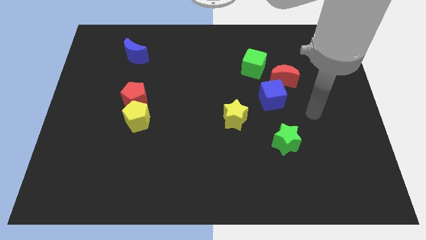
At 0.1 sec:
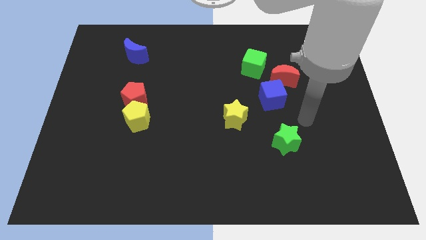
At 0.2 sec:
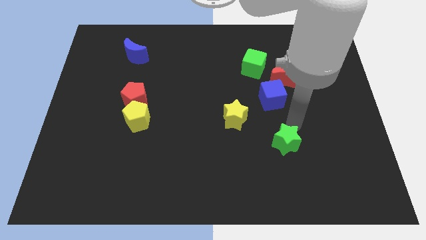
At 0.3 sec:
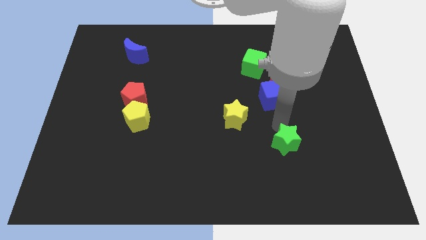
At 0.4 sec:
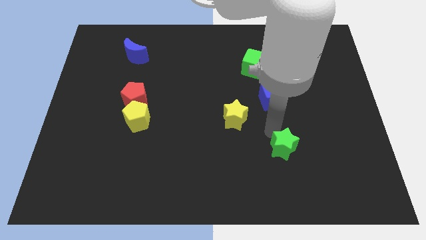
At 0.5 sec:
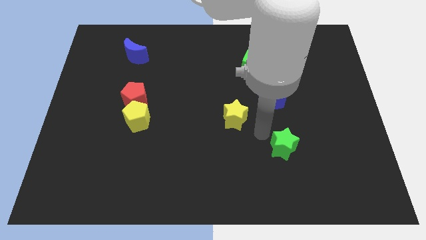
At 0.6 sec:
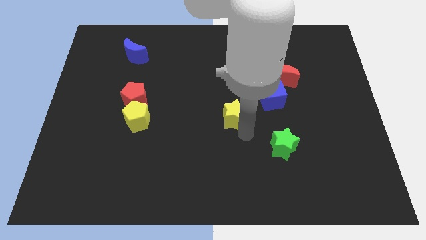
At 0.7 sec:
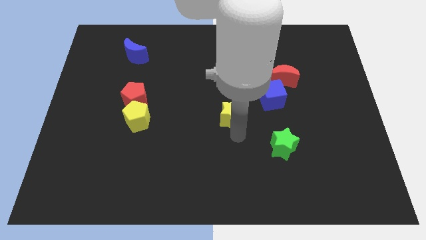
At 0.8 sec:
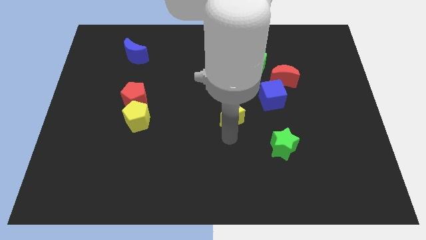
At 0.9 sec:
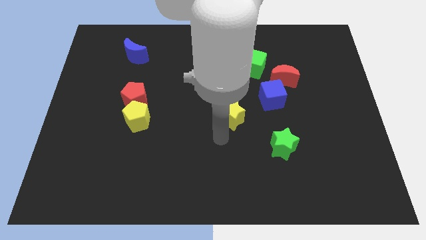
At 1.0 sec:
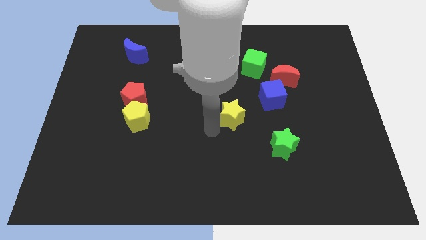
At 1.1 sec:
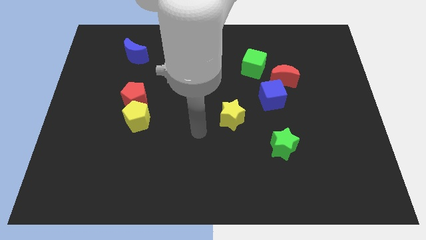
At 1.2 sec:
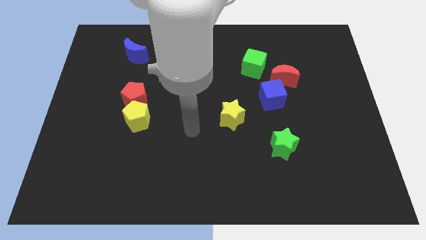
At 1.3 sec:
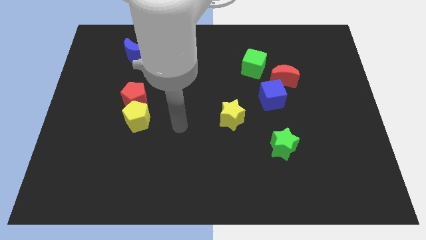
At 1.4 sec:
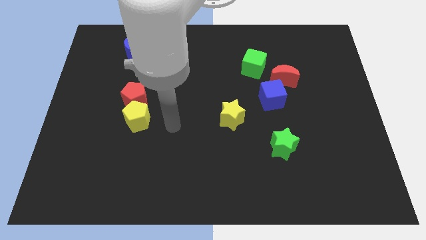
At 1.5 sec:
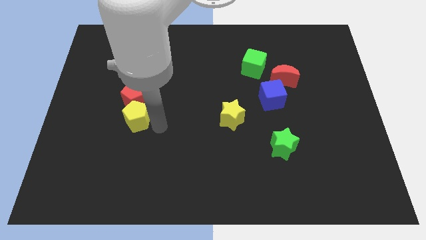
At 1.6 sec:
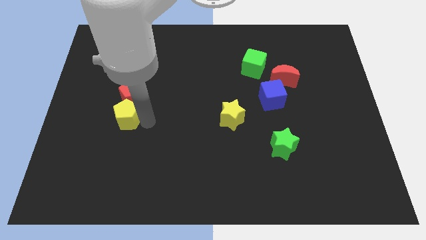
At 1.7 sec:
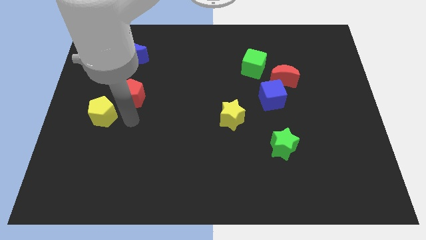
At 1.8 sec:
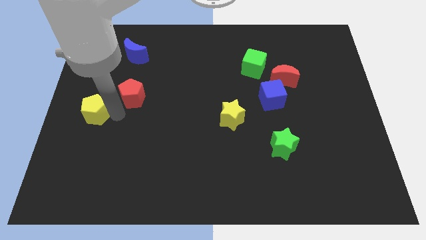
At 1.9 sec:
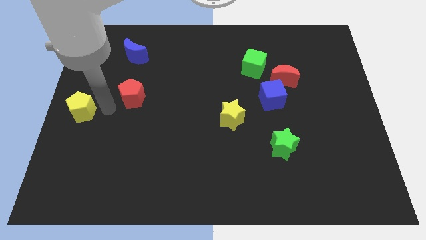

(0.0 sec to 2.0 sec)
separate the red pentagon from the yellow pentagon

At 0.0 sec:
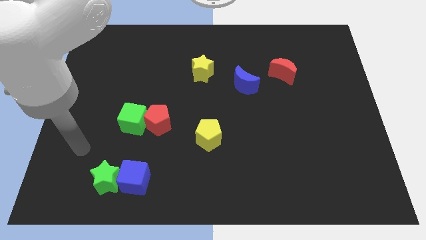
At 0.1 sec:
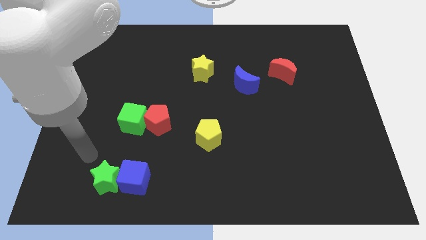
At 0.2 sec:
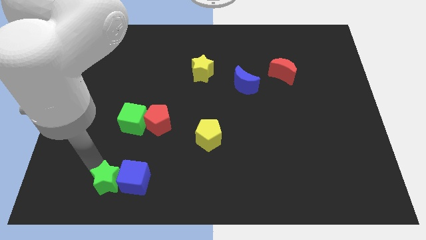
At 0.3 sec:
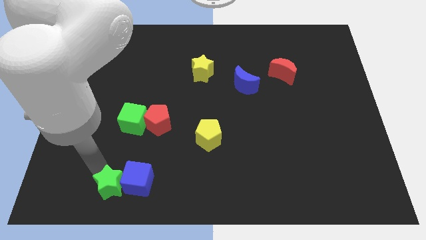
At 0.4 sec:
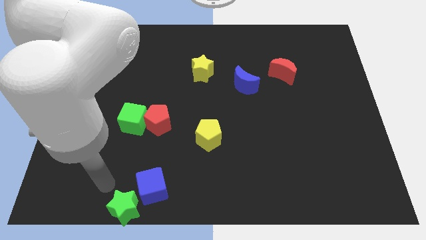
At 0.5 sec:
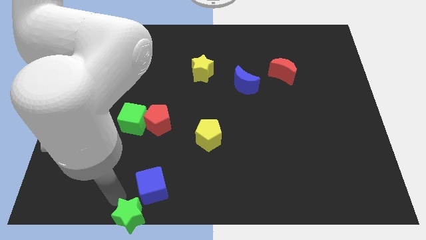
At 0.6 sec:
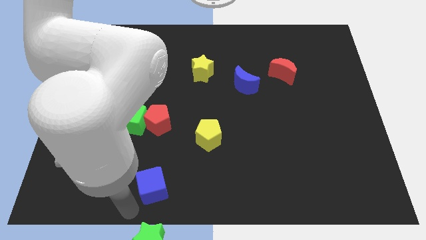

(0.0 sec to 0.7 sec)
separate the blue cube from the green star

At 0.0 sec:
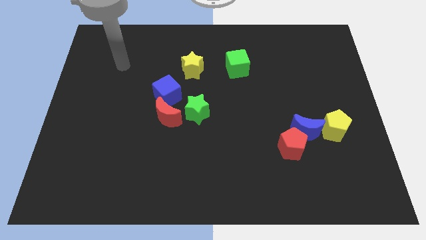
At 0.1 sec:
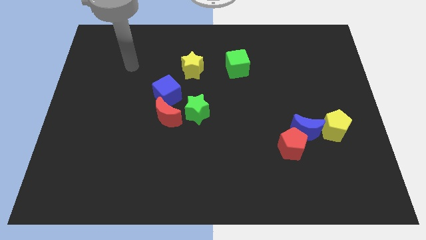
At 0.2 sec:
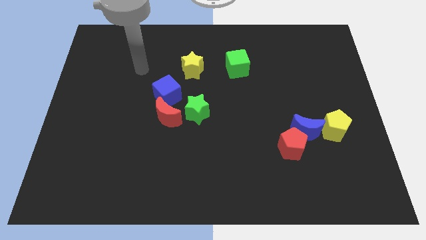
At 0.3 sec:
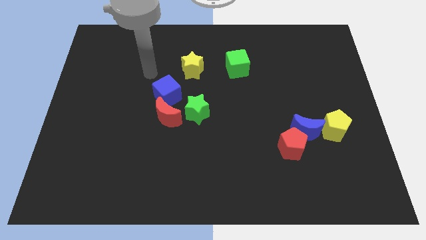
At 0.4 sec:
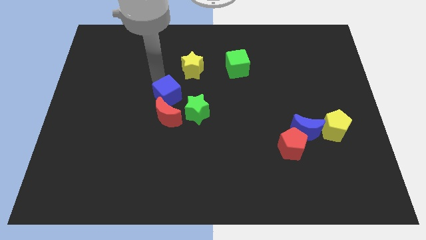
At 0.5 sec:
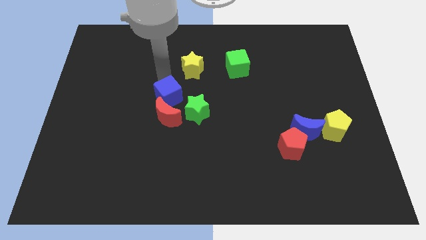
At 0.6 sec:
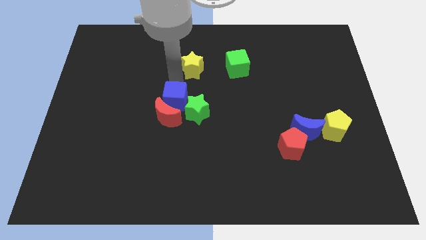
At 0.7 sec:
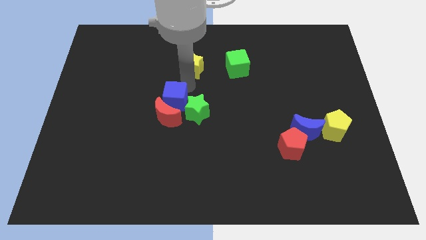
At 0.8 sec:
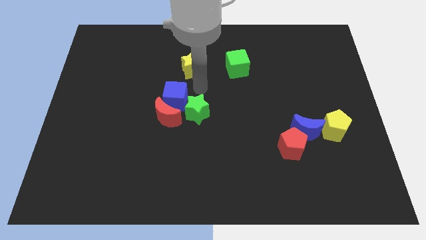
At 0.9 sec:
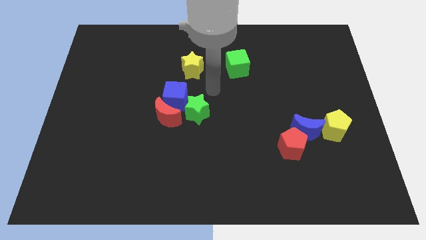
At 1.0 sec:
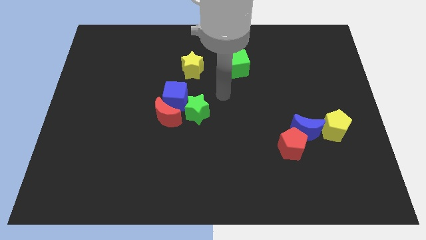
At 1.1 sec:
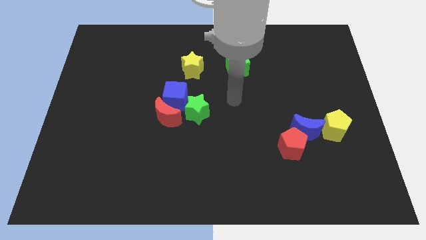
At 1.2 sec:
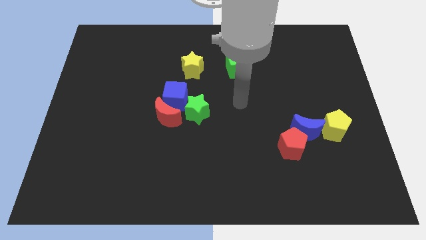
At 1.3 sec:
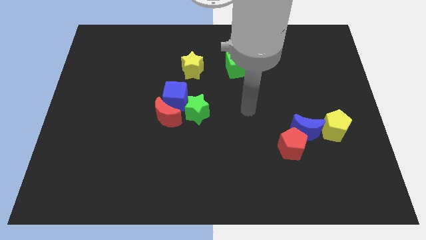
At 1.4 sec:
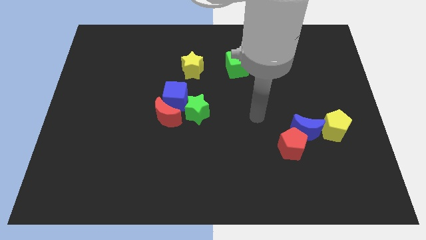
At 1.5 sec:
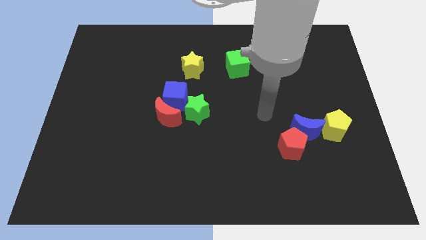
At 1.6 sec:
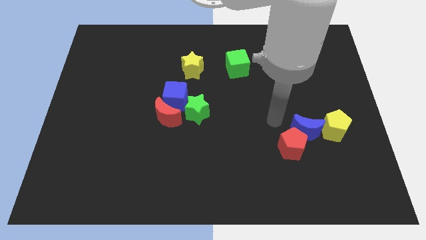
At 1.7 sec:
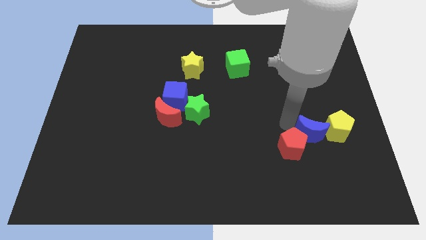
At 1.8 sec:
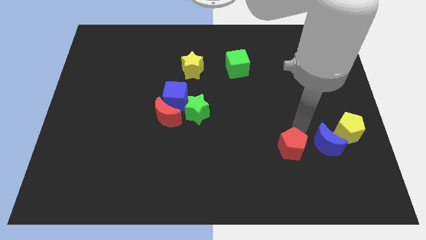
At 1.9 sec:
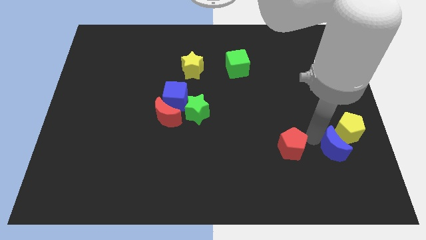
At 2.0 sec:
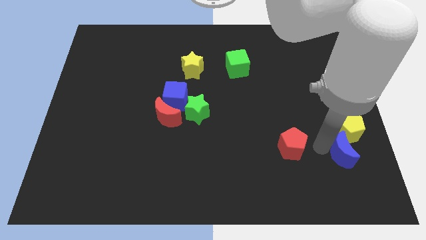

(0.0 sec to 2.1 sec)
separate the red pentagon from the blue moon

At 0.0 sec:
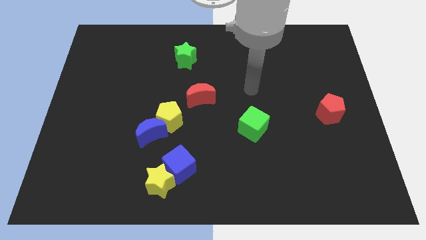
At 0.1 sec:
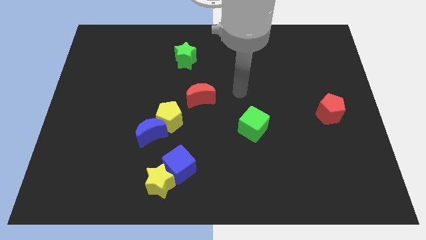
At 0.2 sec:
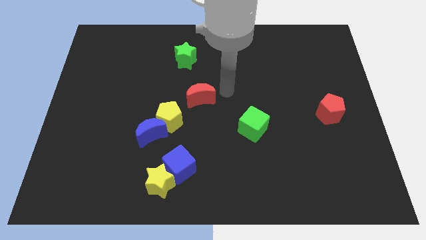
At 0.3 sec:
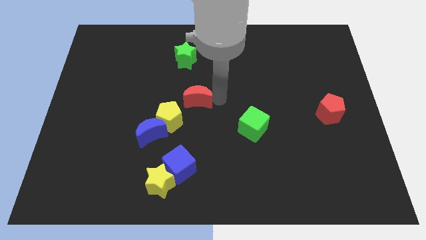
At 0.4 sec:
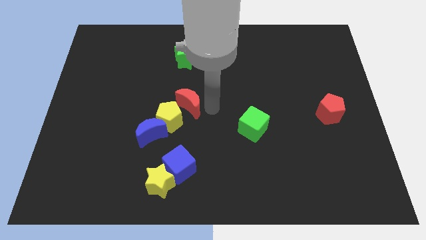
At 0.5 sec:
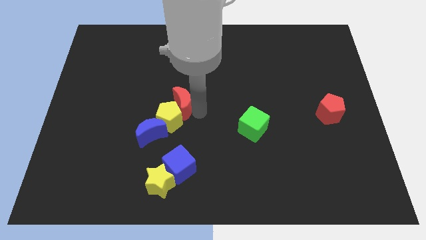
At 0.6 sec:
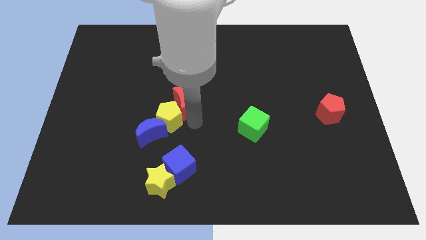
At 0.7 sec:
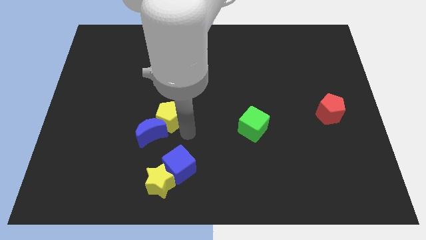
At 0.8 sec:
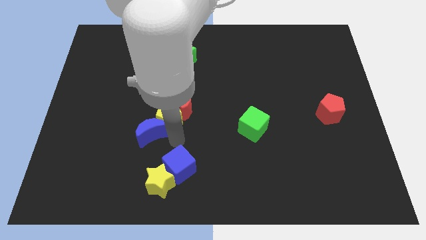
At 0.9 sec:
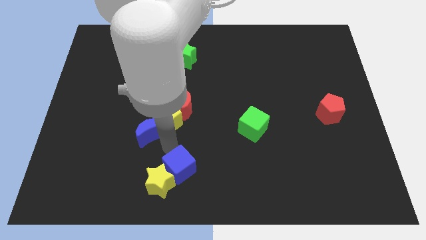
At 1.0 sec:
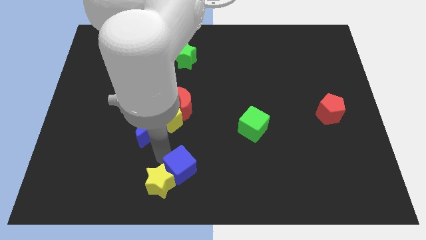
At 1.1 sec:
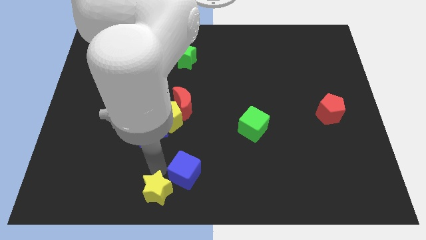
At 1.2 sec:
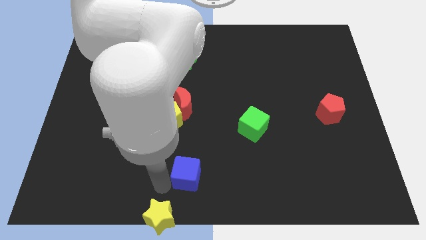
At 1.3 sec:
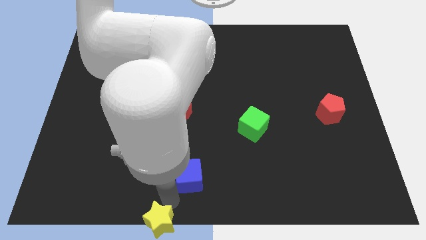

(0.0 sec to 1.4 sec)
separate the blue cube from the yellow star

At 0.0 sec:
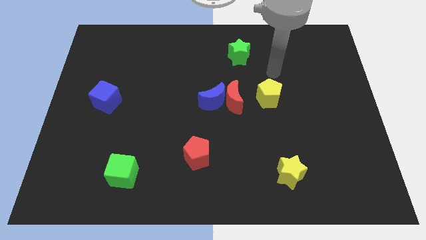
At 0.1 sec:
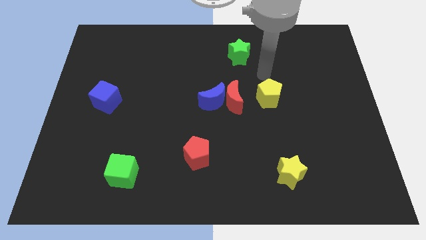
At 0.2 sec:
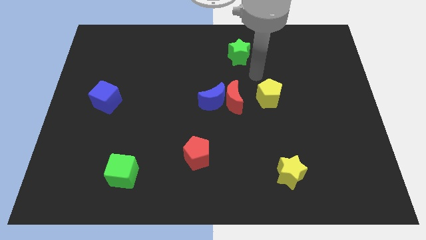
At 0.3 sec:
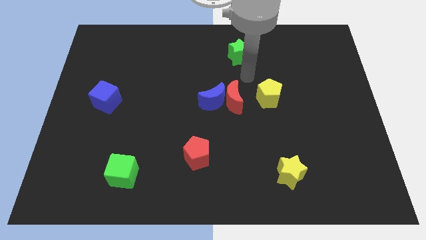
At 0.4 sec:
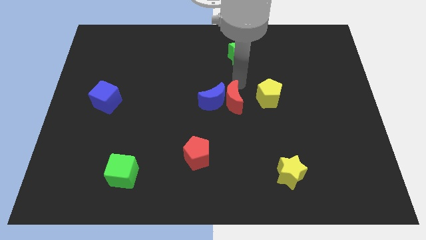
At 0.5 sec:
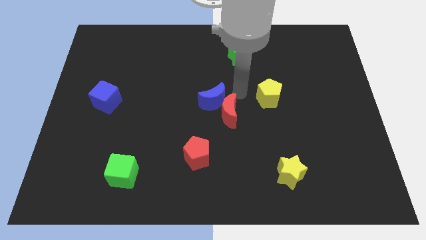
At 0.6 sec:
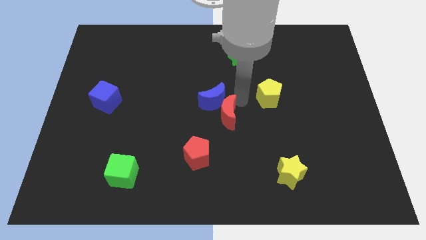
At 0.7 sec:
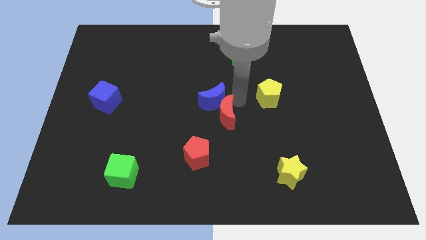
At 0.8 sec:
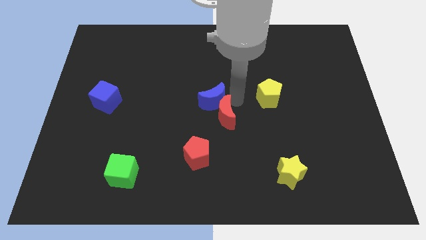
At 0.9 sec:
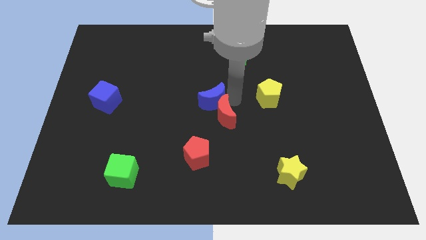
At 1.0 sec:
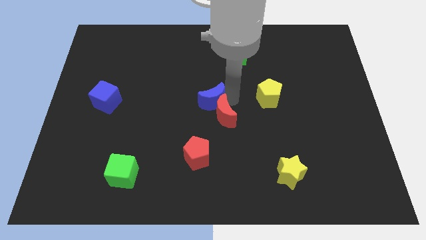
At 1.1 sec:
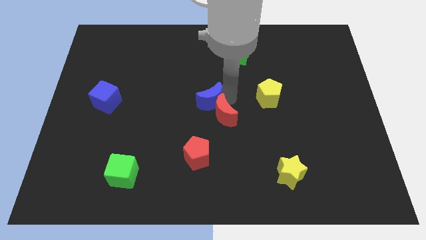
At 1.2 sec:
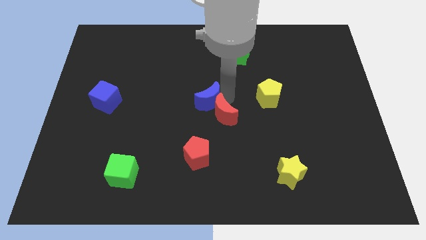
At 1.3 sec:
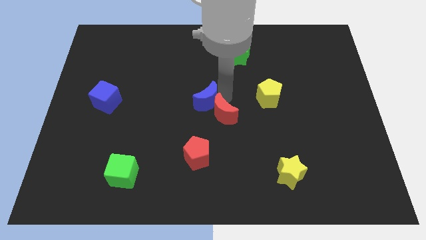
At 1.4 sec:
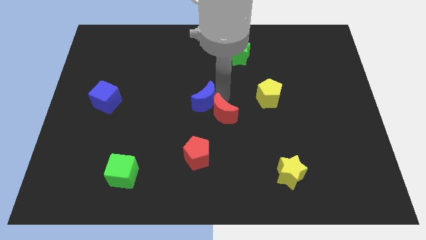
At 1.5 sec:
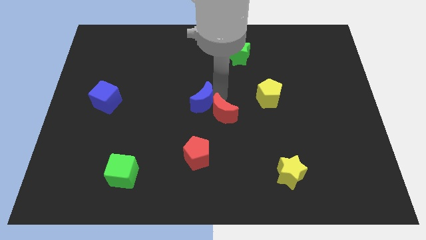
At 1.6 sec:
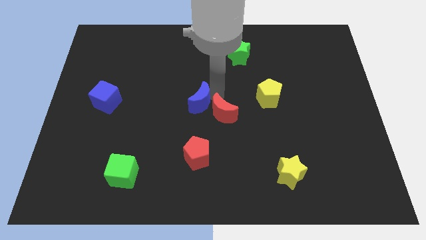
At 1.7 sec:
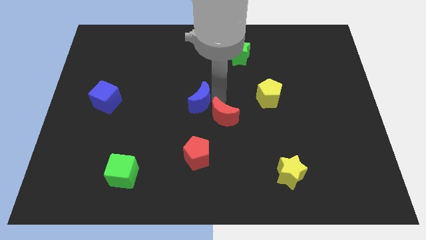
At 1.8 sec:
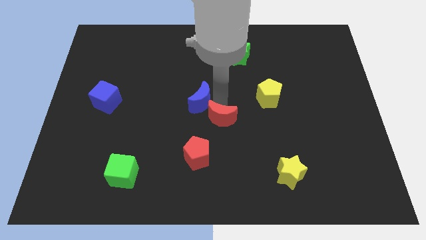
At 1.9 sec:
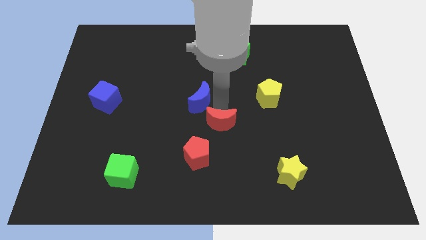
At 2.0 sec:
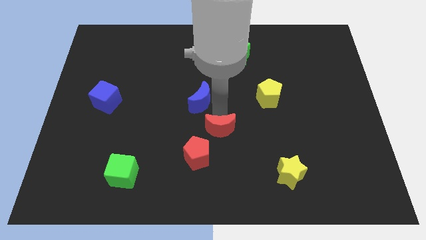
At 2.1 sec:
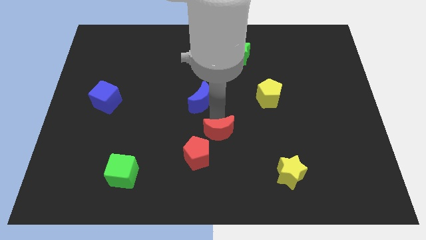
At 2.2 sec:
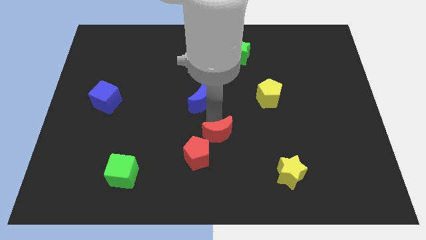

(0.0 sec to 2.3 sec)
separate the blue moon from the red moon

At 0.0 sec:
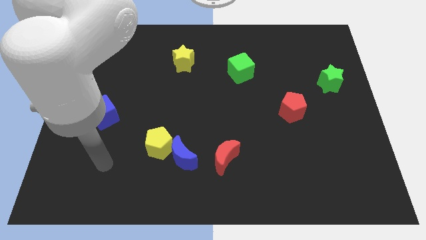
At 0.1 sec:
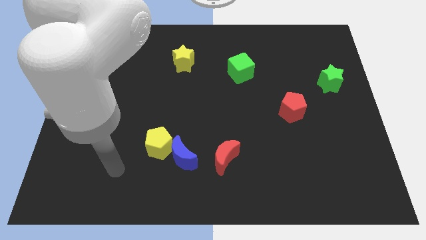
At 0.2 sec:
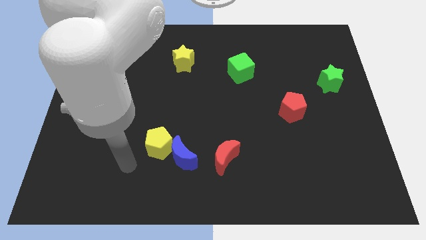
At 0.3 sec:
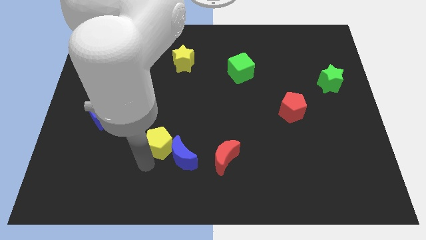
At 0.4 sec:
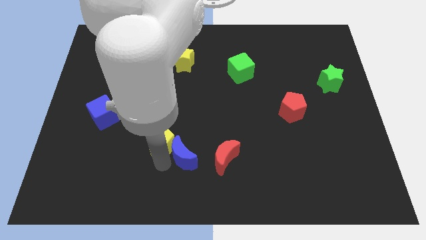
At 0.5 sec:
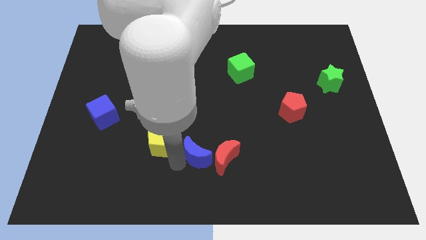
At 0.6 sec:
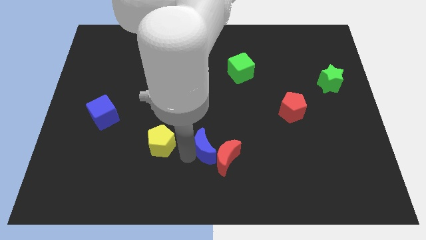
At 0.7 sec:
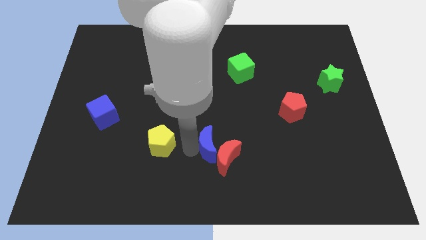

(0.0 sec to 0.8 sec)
separate the yellow pentagon from the blue moon
